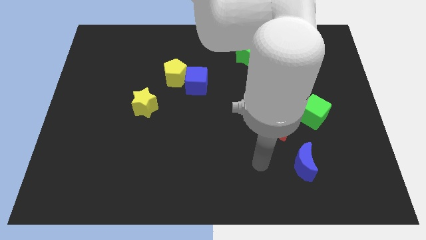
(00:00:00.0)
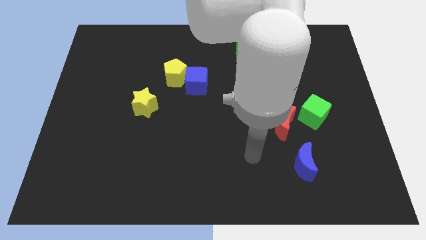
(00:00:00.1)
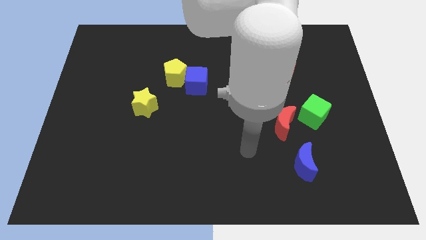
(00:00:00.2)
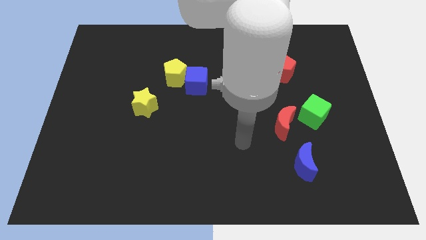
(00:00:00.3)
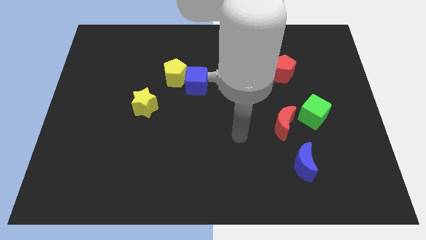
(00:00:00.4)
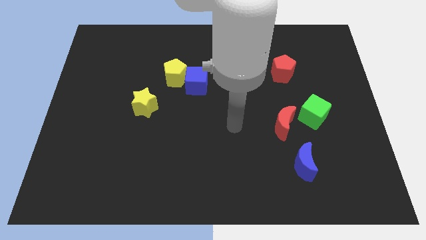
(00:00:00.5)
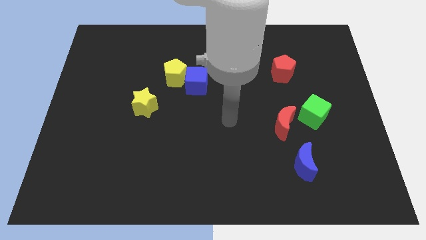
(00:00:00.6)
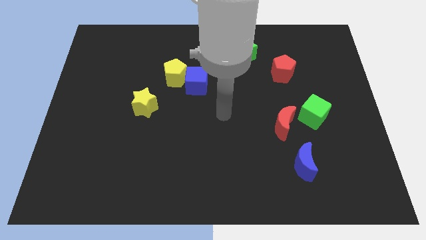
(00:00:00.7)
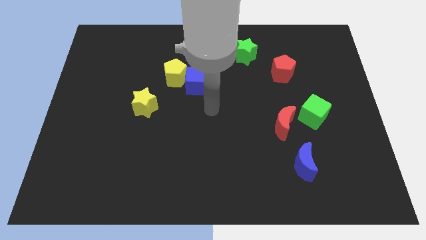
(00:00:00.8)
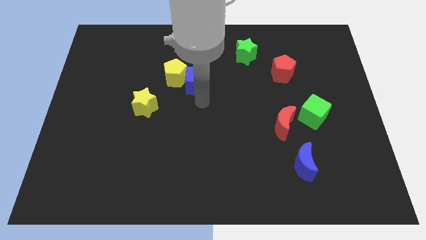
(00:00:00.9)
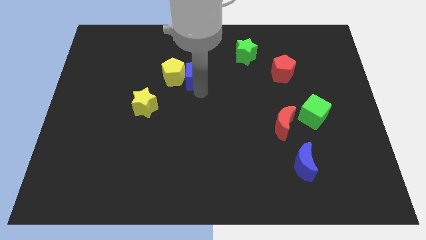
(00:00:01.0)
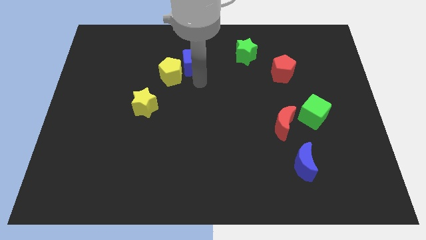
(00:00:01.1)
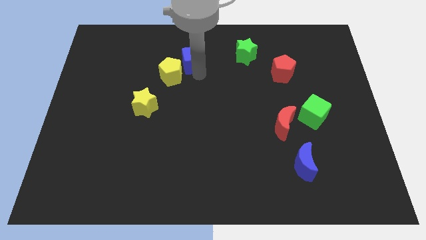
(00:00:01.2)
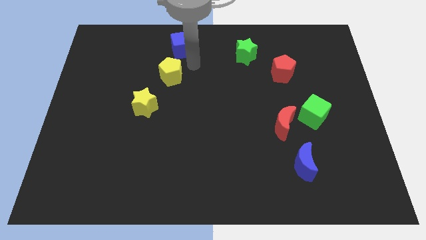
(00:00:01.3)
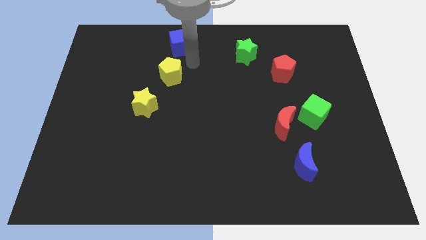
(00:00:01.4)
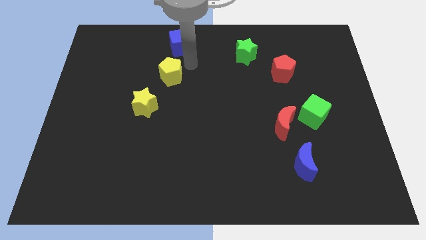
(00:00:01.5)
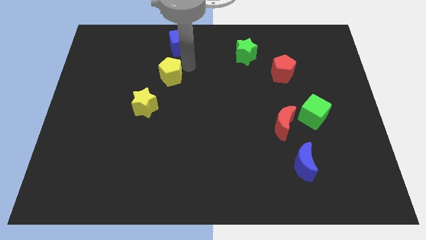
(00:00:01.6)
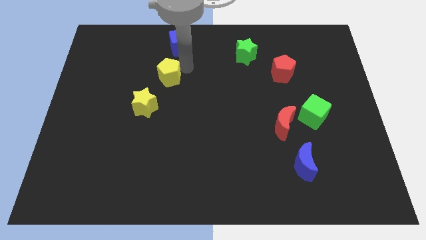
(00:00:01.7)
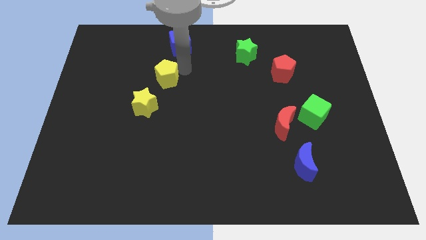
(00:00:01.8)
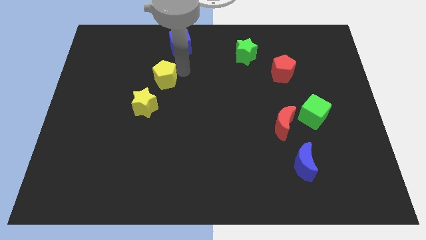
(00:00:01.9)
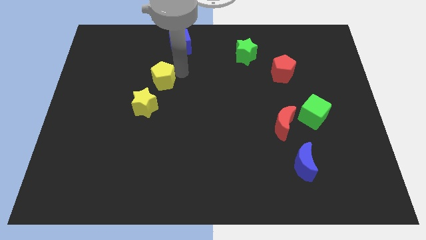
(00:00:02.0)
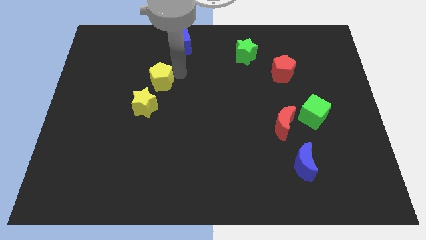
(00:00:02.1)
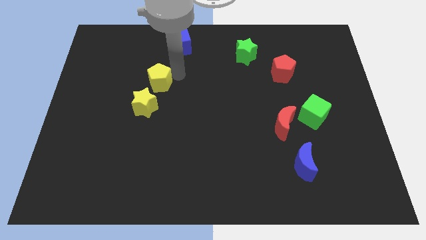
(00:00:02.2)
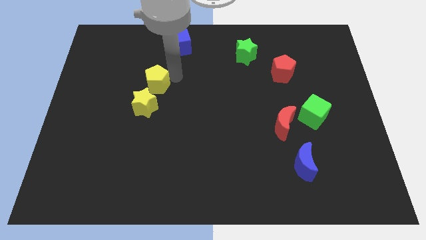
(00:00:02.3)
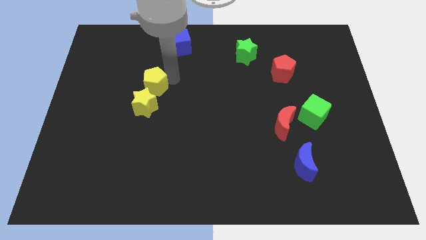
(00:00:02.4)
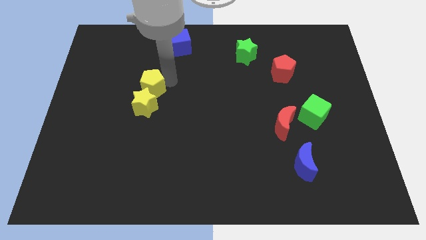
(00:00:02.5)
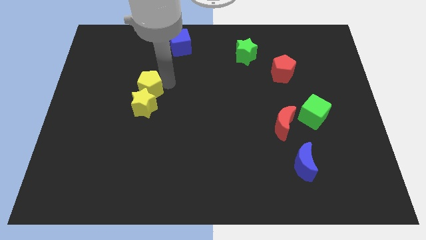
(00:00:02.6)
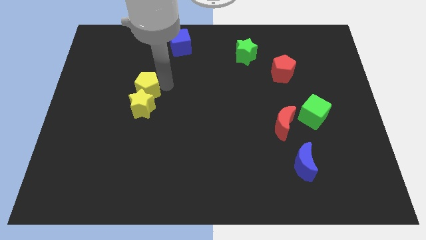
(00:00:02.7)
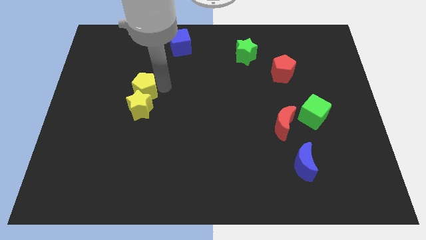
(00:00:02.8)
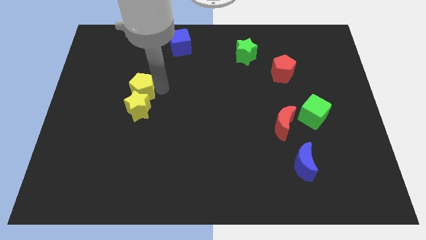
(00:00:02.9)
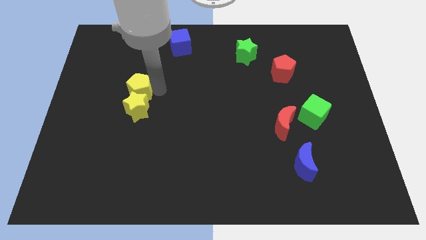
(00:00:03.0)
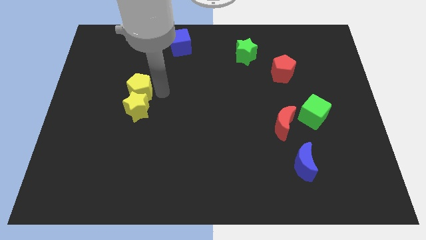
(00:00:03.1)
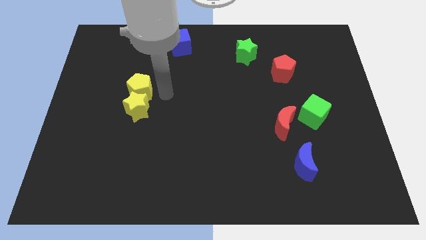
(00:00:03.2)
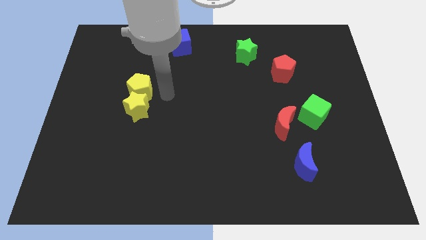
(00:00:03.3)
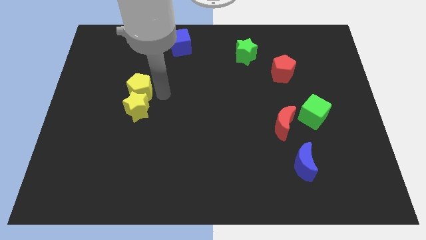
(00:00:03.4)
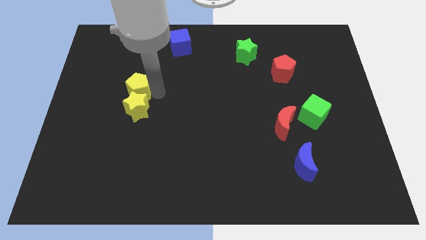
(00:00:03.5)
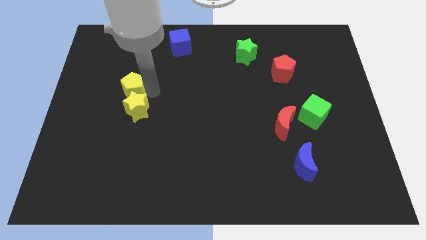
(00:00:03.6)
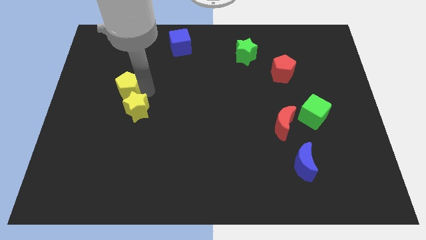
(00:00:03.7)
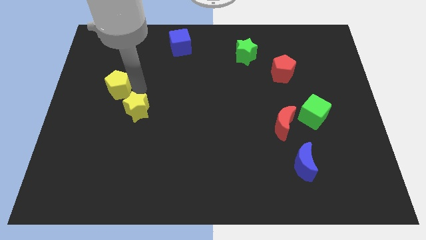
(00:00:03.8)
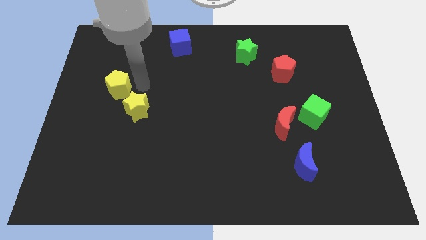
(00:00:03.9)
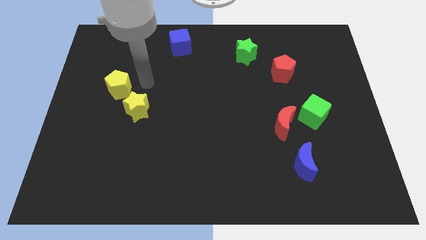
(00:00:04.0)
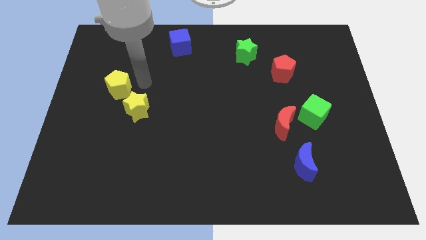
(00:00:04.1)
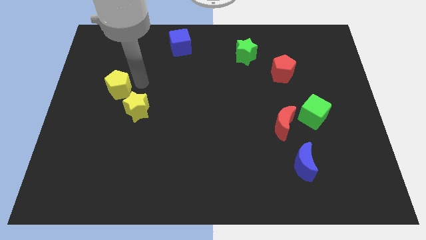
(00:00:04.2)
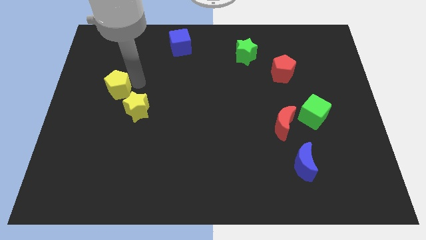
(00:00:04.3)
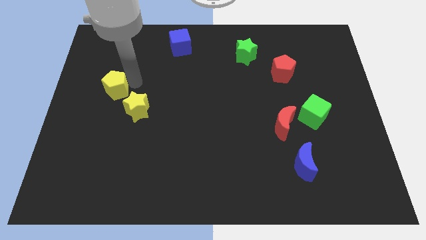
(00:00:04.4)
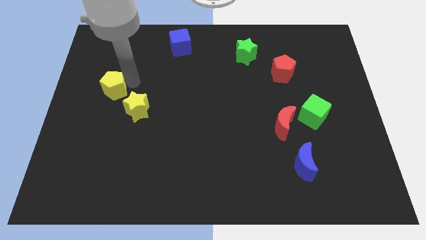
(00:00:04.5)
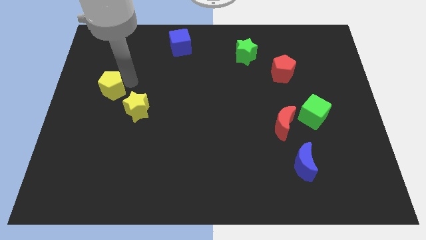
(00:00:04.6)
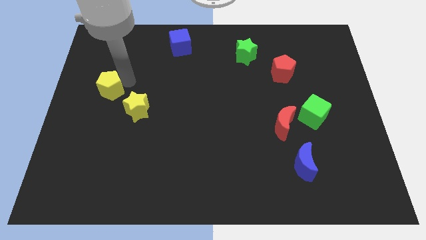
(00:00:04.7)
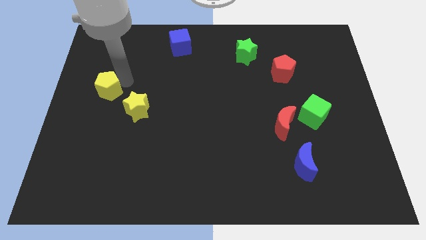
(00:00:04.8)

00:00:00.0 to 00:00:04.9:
put the yellow pentagon to the left side of the board

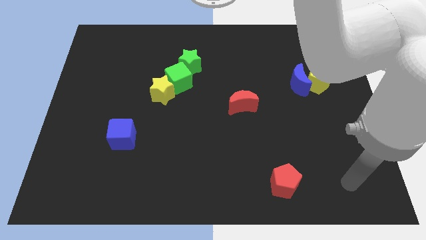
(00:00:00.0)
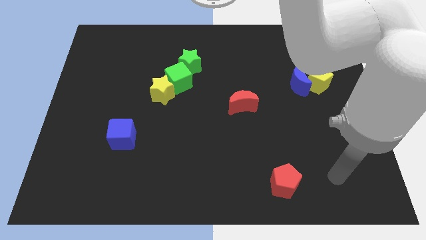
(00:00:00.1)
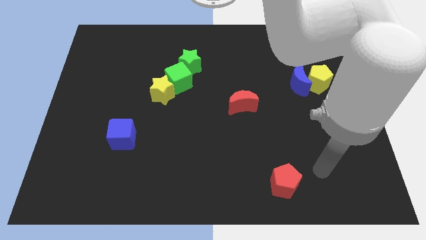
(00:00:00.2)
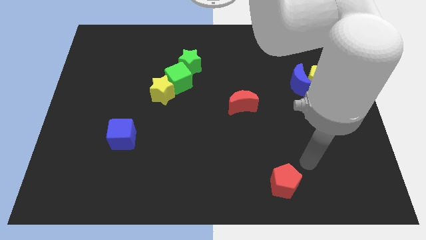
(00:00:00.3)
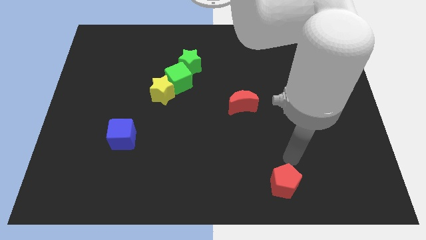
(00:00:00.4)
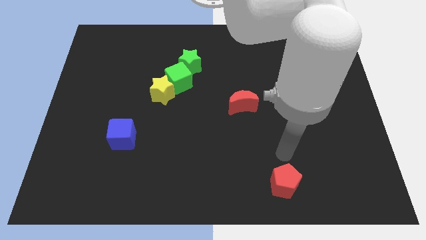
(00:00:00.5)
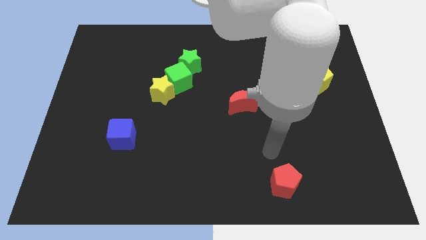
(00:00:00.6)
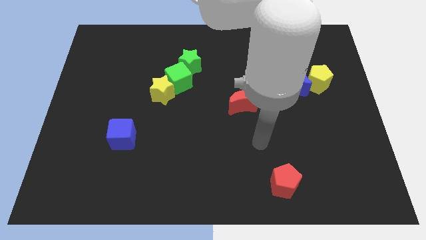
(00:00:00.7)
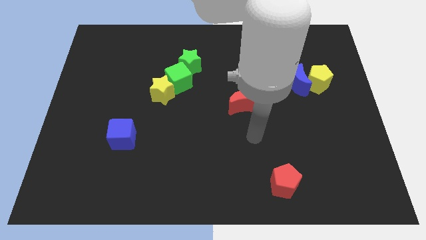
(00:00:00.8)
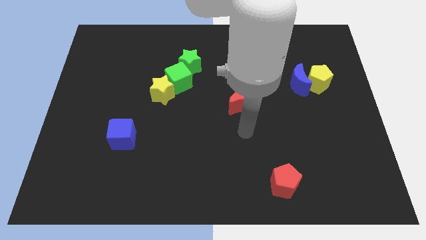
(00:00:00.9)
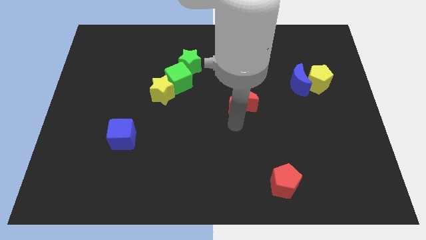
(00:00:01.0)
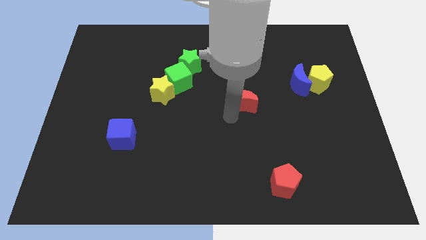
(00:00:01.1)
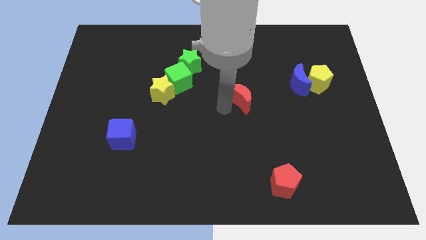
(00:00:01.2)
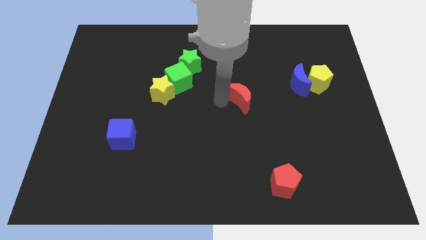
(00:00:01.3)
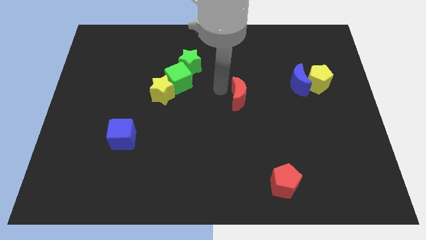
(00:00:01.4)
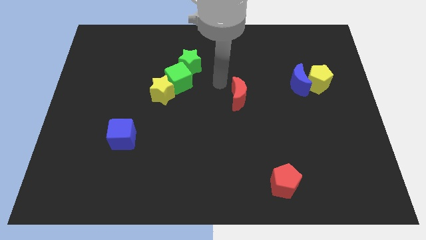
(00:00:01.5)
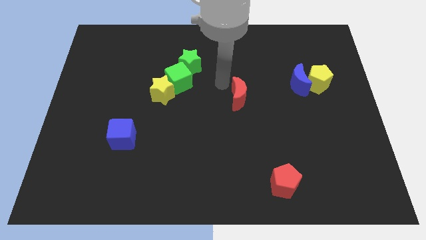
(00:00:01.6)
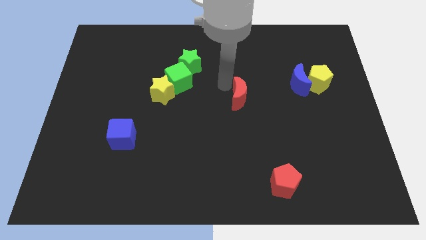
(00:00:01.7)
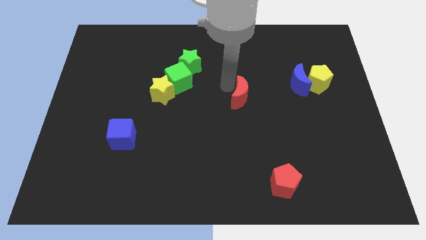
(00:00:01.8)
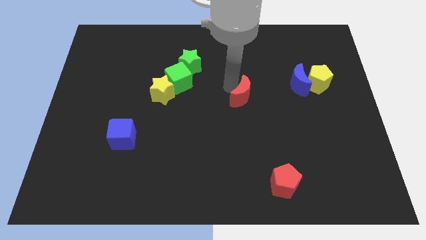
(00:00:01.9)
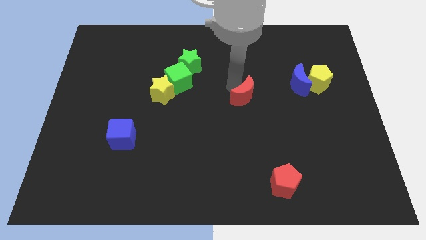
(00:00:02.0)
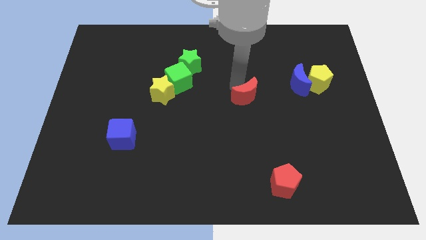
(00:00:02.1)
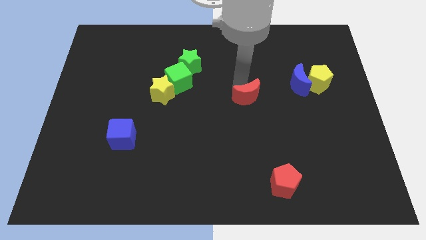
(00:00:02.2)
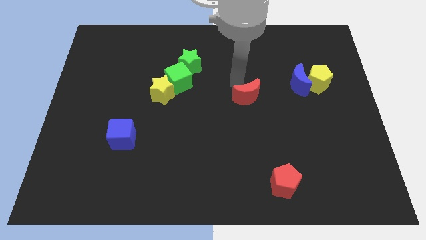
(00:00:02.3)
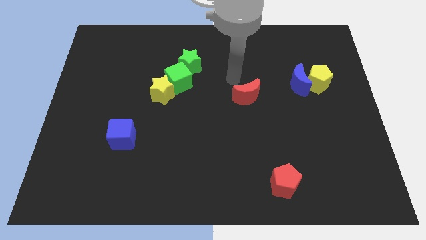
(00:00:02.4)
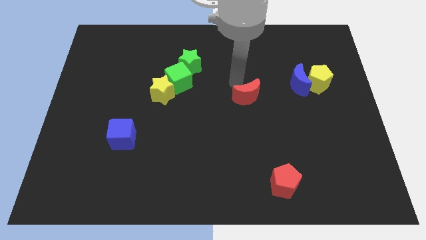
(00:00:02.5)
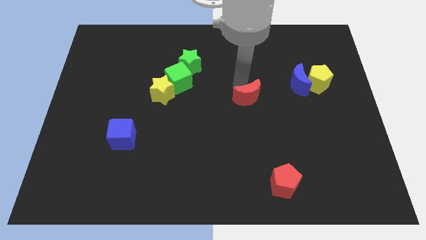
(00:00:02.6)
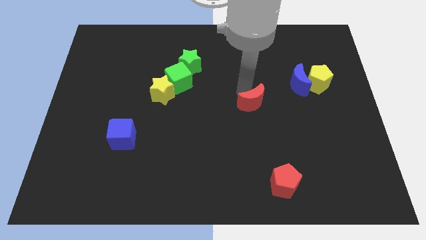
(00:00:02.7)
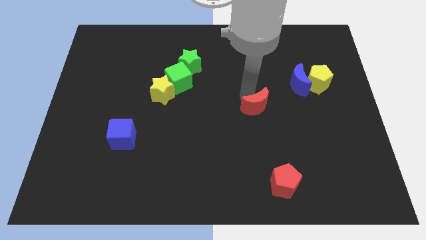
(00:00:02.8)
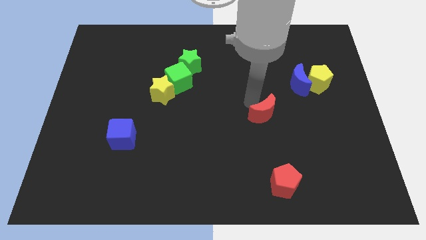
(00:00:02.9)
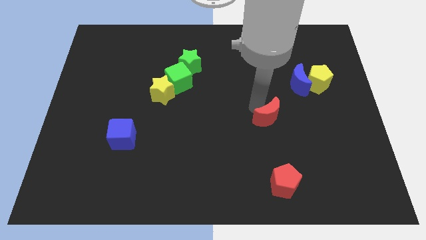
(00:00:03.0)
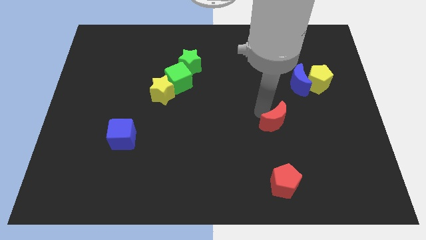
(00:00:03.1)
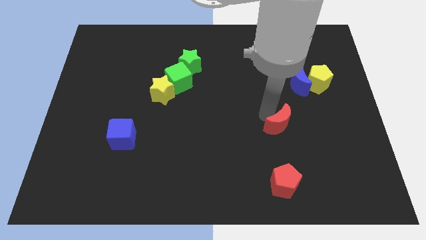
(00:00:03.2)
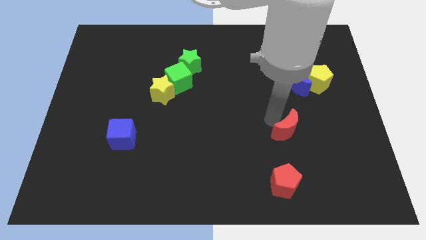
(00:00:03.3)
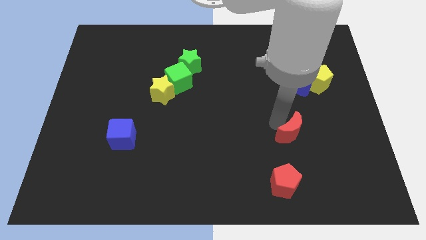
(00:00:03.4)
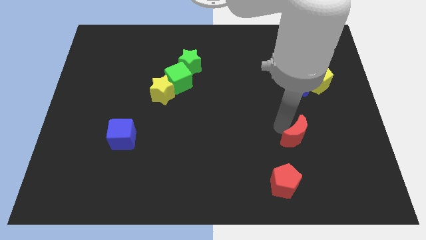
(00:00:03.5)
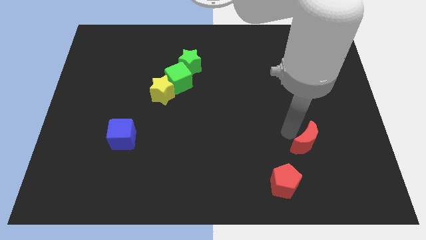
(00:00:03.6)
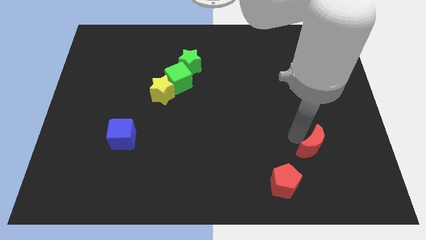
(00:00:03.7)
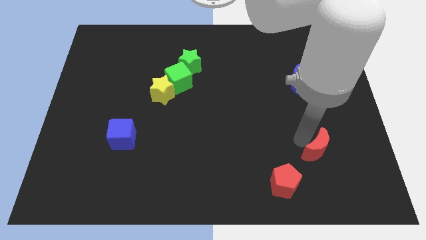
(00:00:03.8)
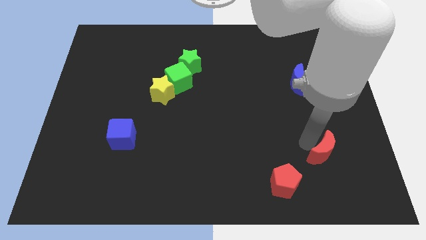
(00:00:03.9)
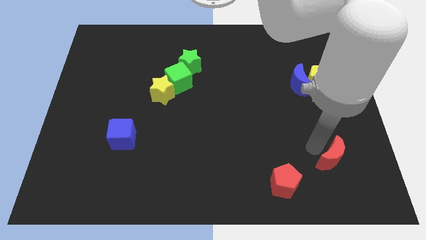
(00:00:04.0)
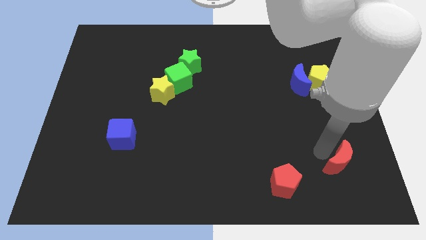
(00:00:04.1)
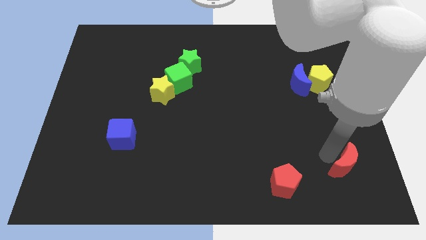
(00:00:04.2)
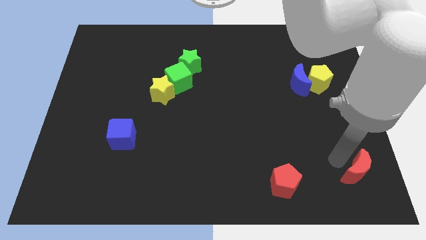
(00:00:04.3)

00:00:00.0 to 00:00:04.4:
put the red moon to the lower right corner
